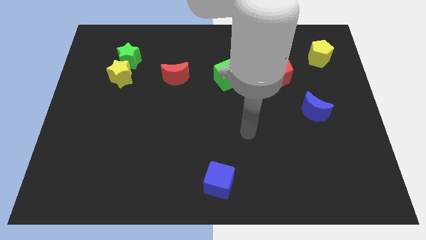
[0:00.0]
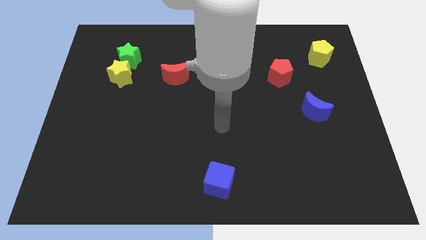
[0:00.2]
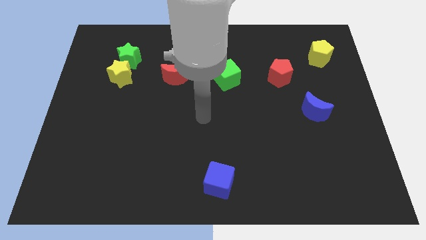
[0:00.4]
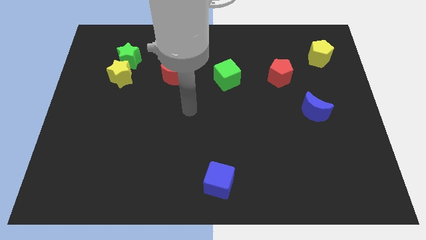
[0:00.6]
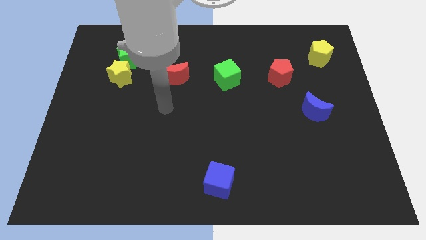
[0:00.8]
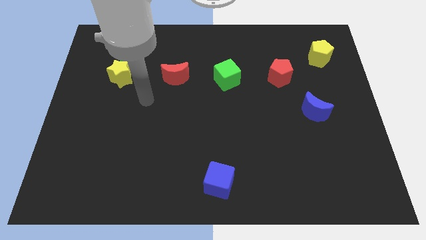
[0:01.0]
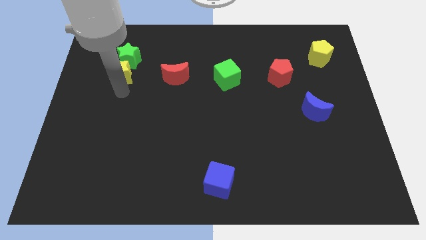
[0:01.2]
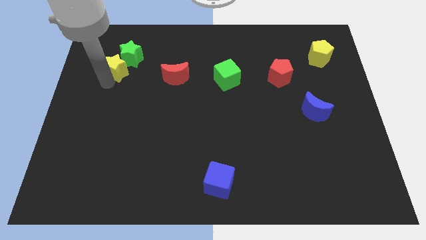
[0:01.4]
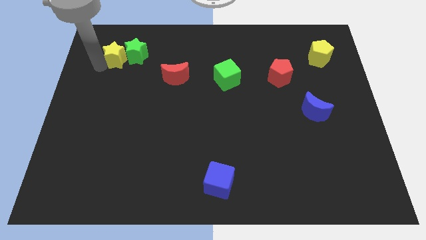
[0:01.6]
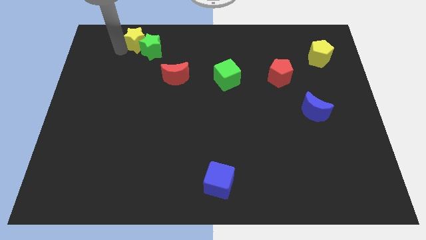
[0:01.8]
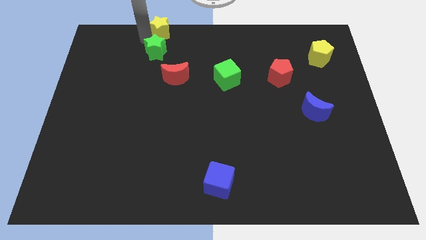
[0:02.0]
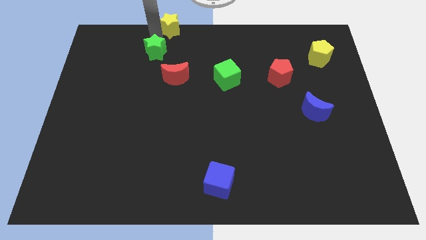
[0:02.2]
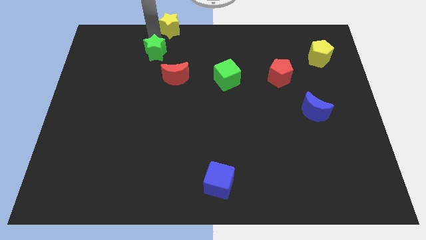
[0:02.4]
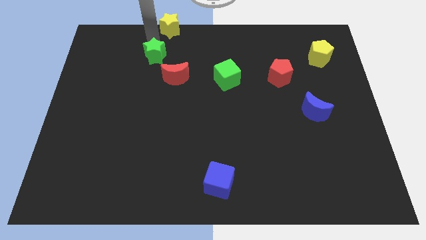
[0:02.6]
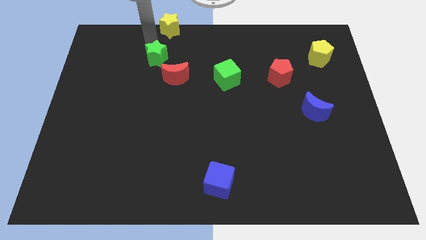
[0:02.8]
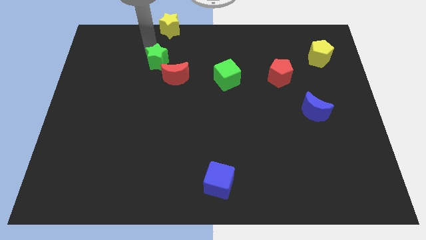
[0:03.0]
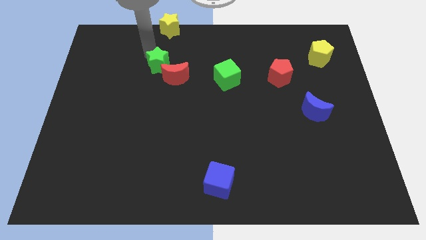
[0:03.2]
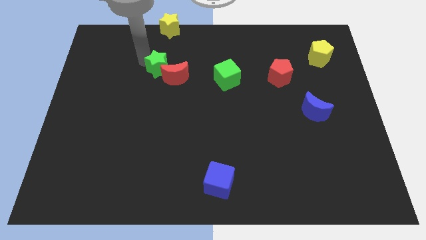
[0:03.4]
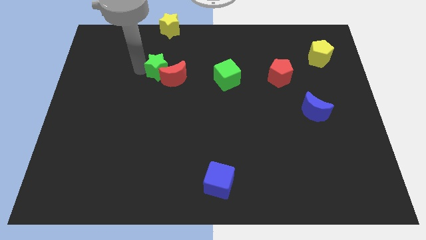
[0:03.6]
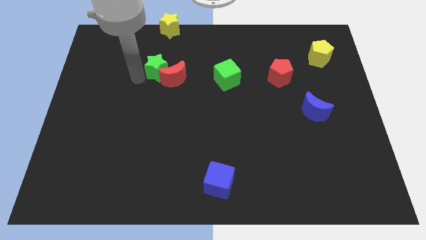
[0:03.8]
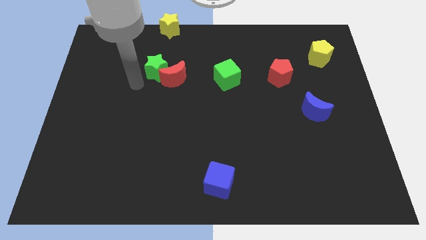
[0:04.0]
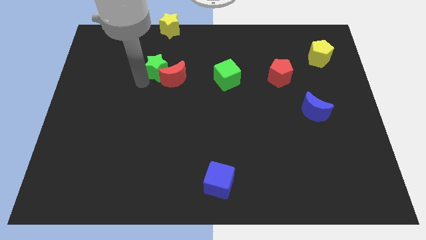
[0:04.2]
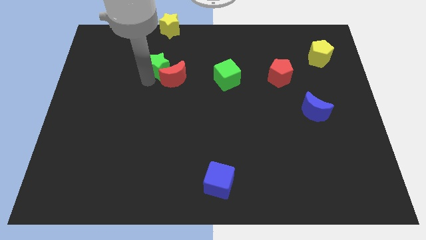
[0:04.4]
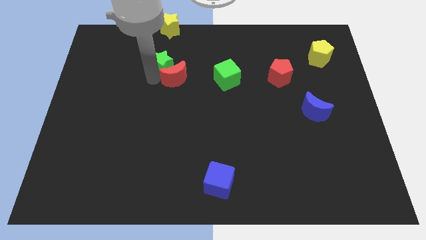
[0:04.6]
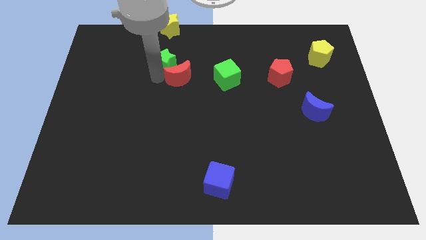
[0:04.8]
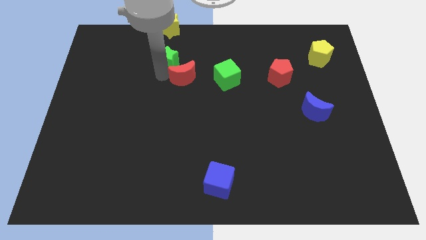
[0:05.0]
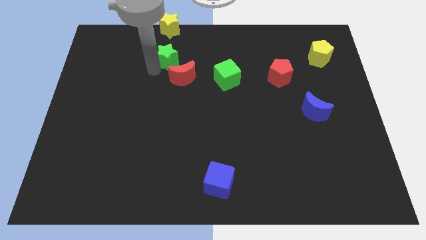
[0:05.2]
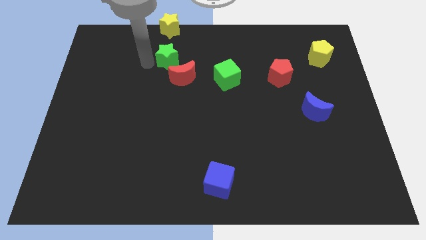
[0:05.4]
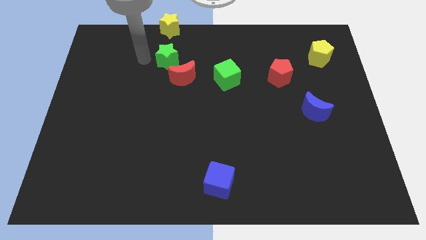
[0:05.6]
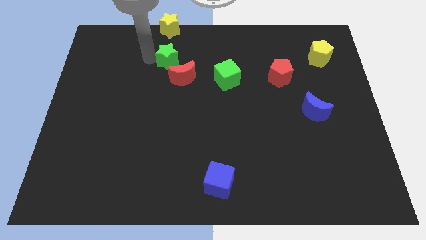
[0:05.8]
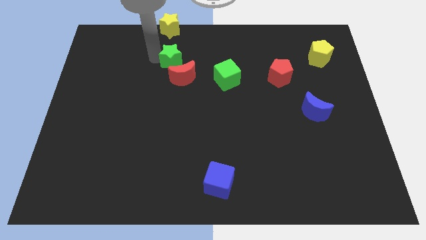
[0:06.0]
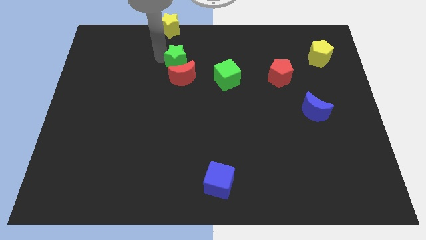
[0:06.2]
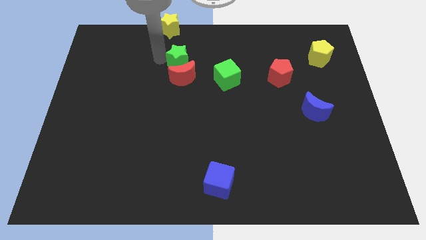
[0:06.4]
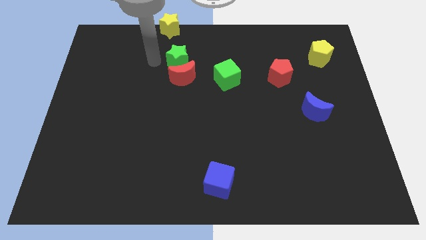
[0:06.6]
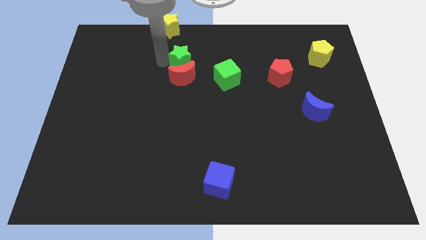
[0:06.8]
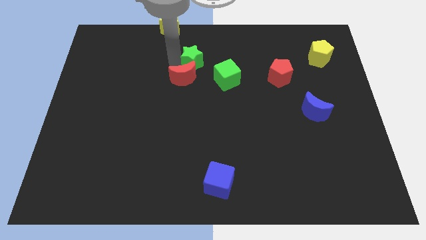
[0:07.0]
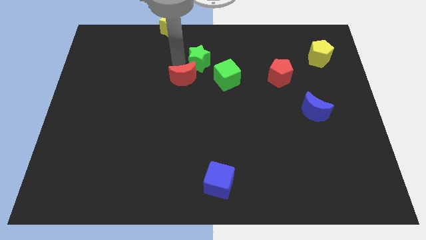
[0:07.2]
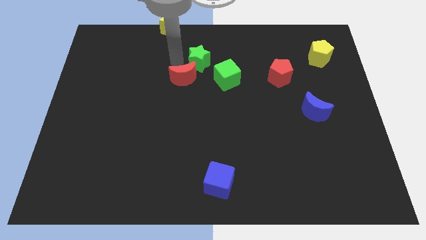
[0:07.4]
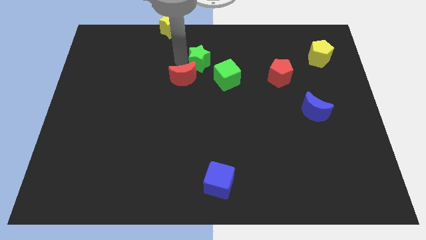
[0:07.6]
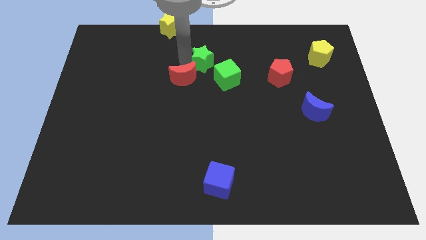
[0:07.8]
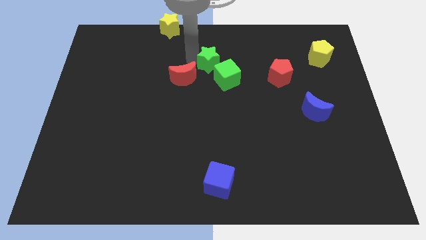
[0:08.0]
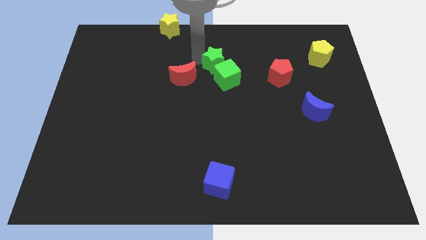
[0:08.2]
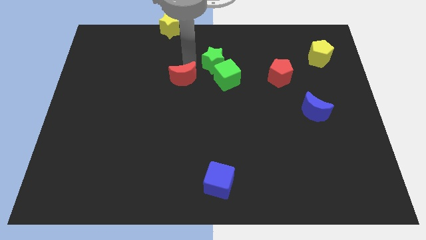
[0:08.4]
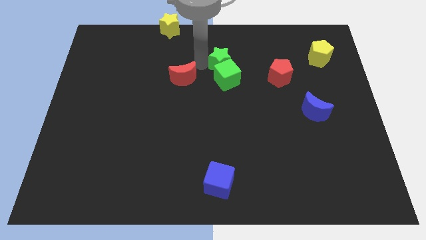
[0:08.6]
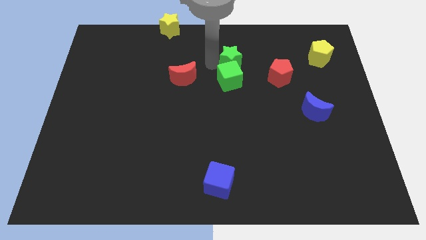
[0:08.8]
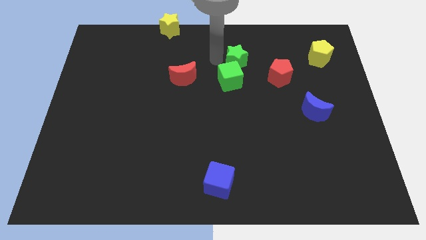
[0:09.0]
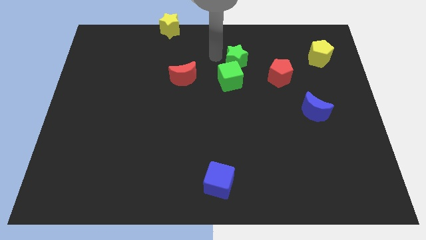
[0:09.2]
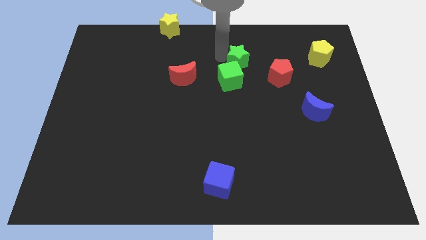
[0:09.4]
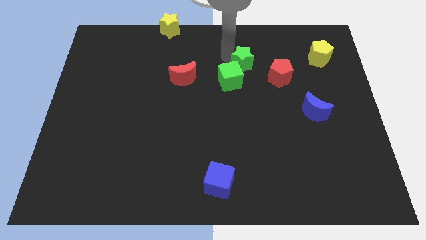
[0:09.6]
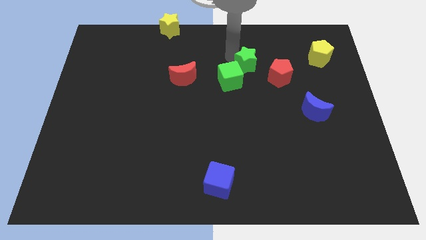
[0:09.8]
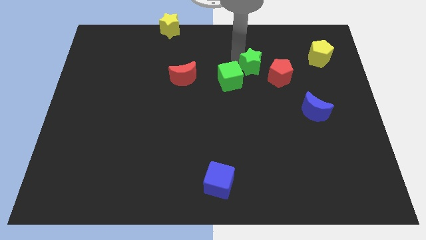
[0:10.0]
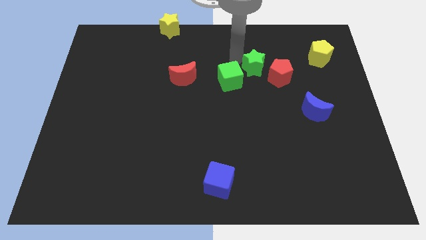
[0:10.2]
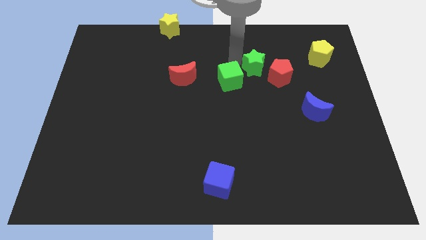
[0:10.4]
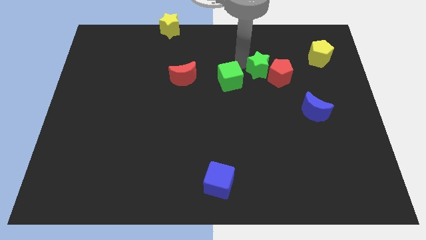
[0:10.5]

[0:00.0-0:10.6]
slide the green star to the red pentagon

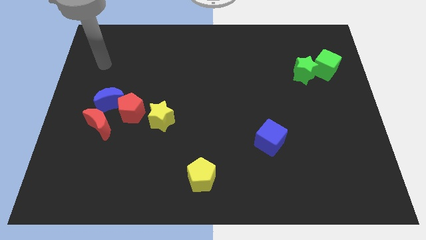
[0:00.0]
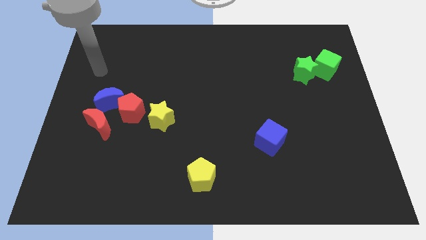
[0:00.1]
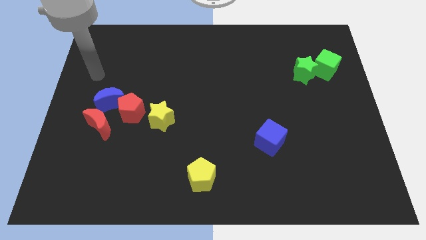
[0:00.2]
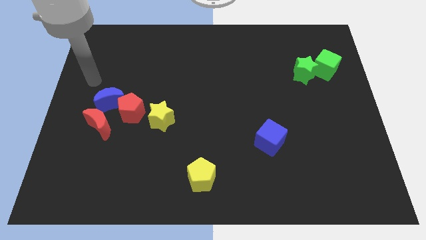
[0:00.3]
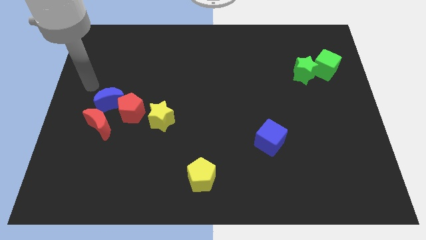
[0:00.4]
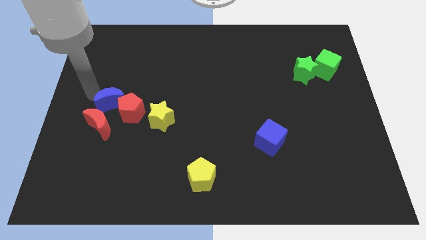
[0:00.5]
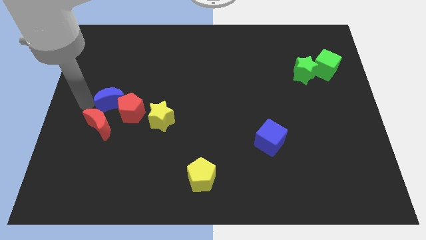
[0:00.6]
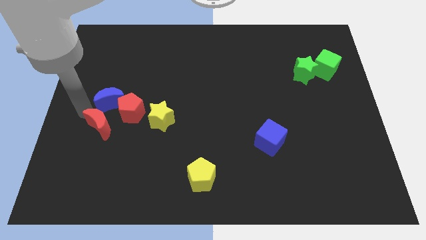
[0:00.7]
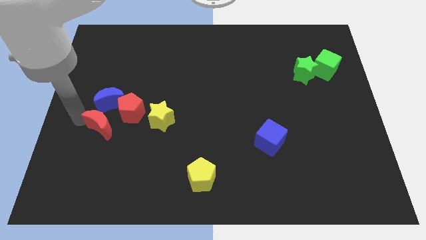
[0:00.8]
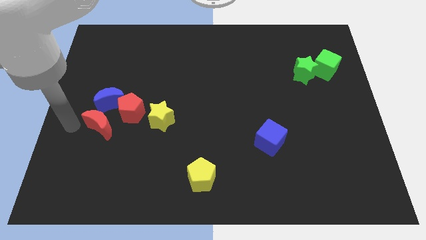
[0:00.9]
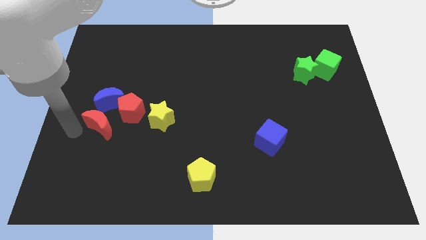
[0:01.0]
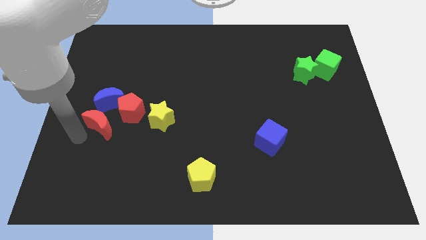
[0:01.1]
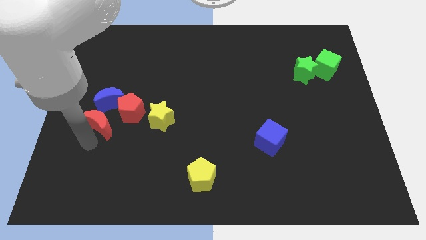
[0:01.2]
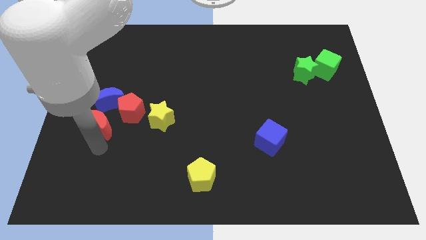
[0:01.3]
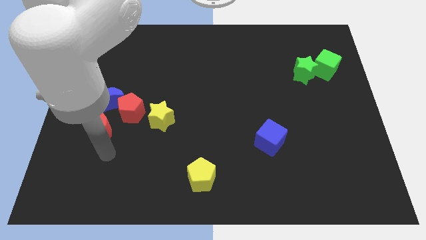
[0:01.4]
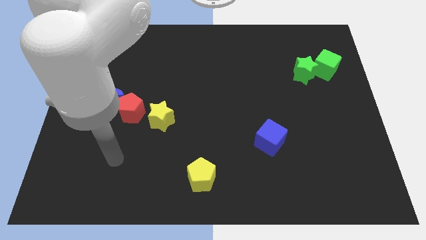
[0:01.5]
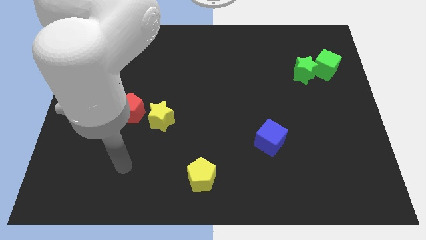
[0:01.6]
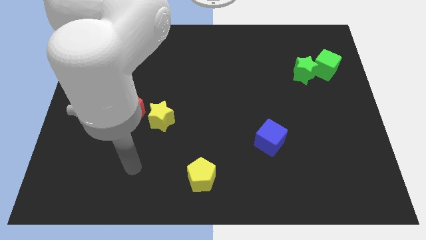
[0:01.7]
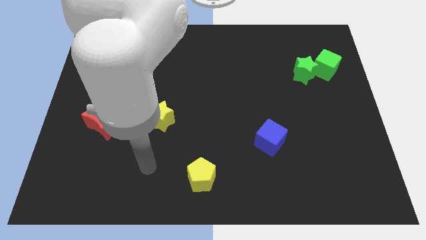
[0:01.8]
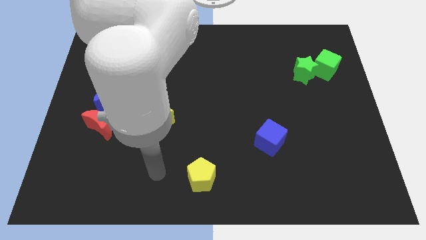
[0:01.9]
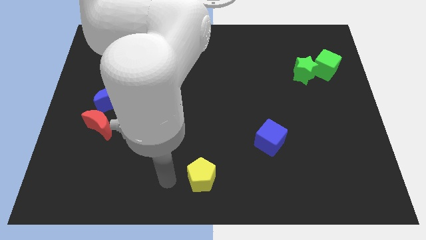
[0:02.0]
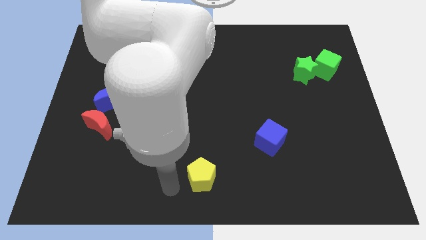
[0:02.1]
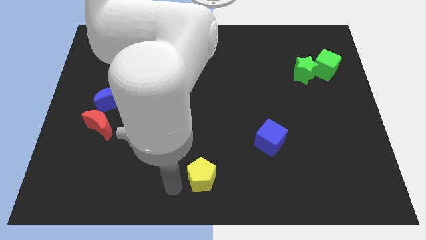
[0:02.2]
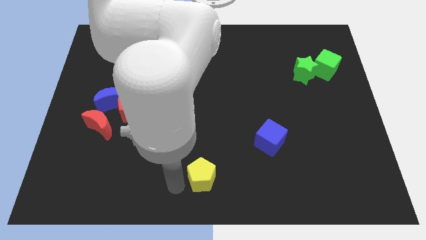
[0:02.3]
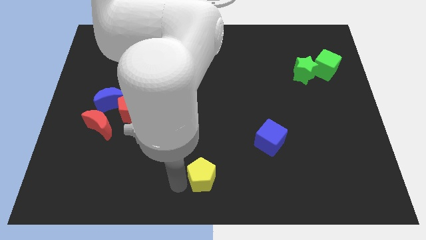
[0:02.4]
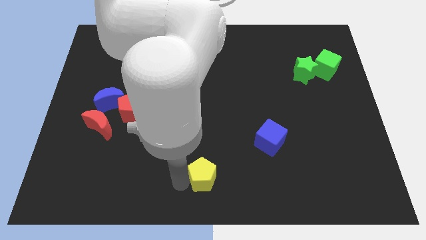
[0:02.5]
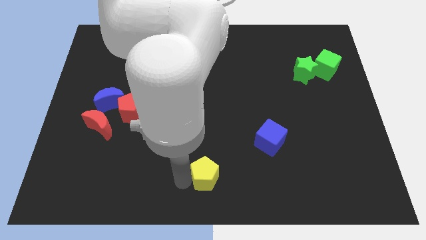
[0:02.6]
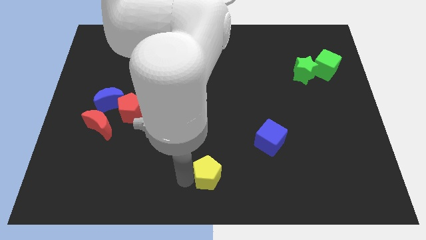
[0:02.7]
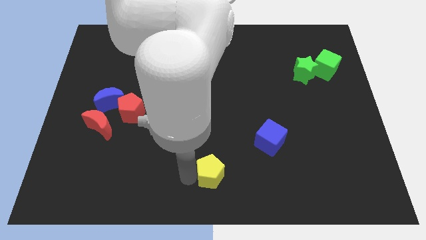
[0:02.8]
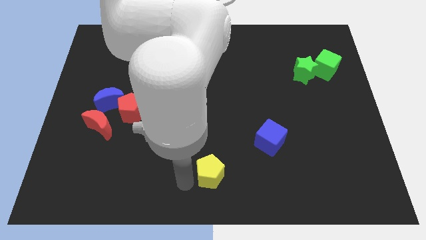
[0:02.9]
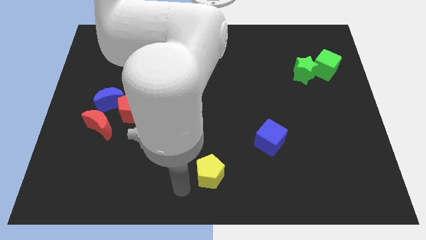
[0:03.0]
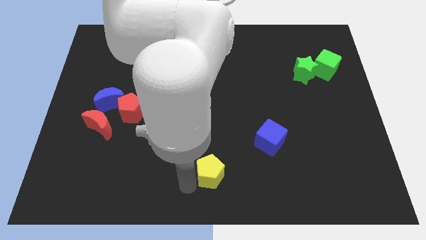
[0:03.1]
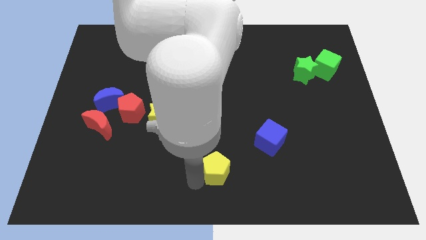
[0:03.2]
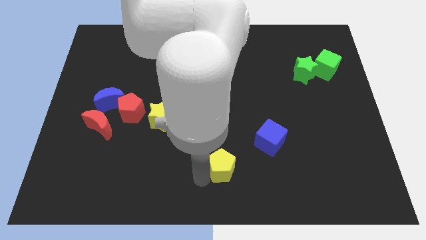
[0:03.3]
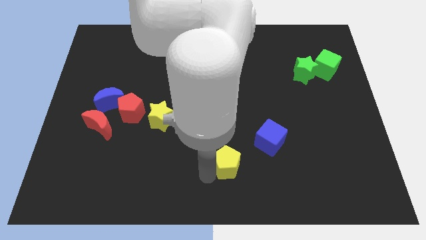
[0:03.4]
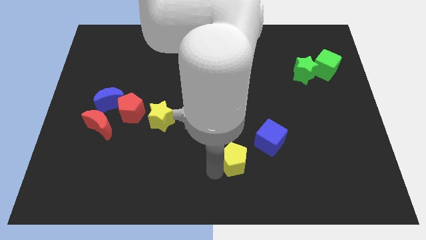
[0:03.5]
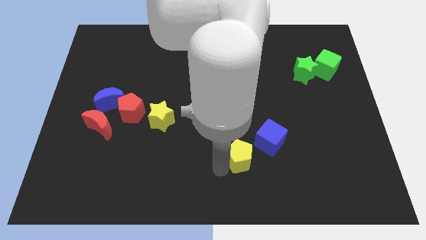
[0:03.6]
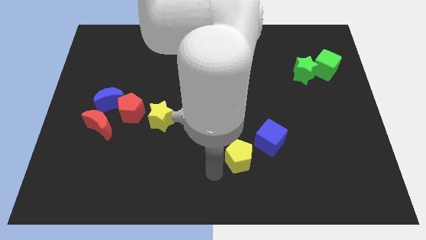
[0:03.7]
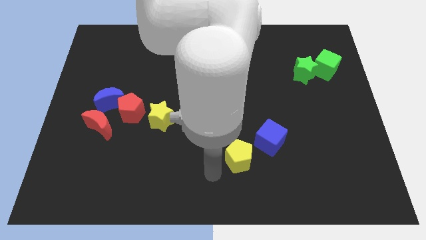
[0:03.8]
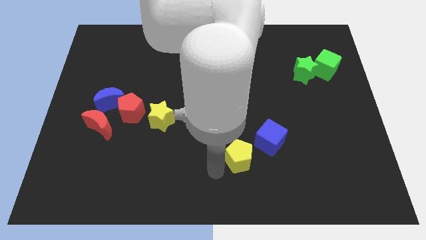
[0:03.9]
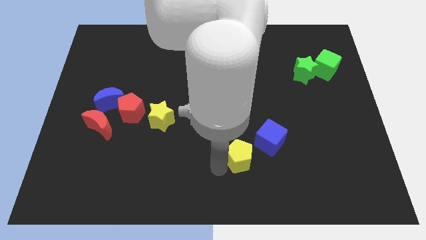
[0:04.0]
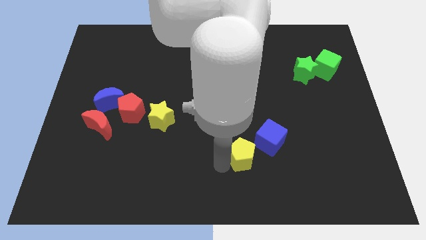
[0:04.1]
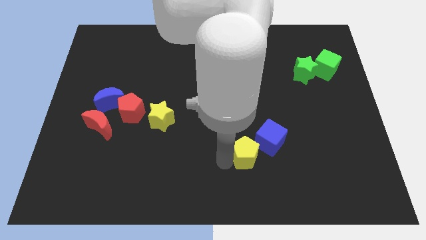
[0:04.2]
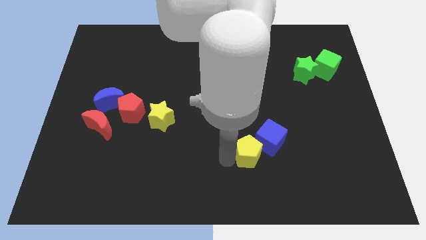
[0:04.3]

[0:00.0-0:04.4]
put the yellow pentagon to the blue cube
